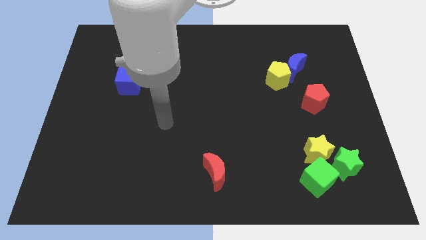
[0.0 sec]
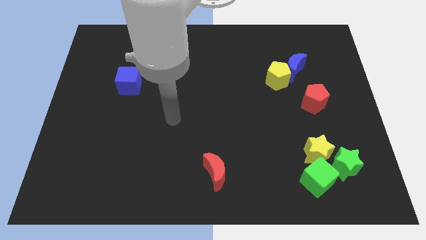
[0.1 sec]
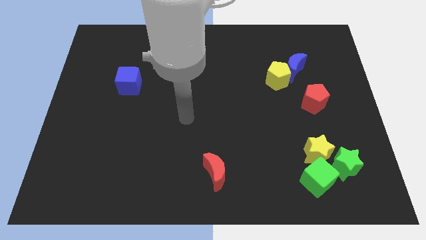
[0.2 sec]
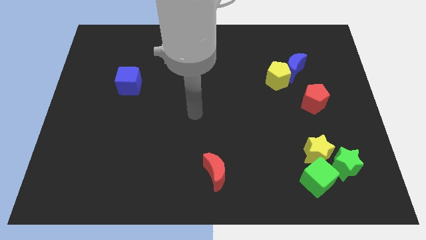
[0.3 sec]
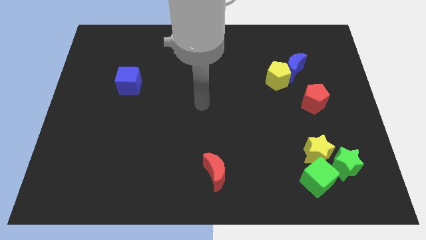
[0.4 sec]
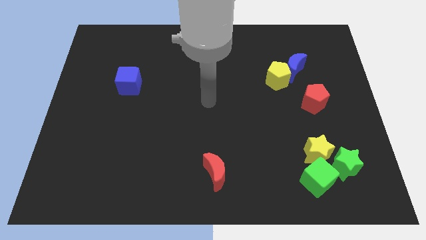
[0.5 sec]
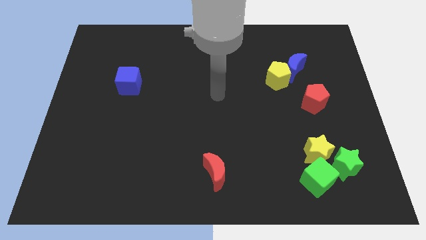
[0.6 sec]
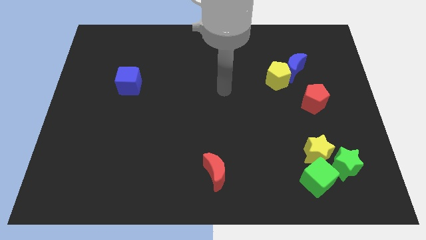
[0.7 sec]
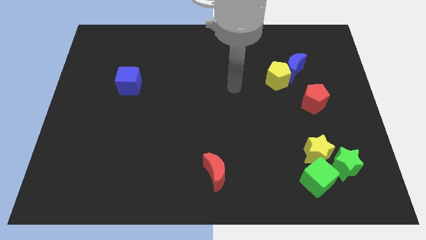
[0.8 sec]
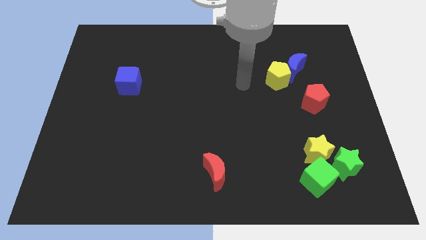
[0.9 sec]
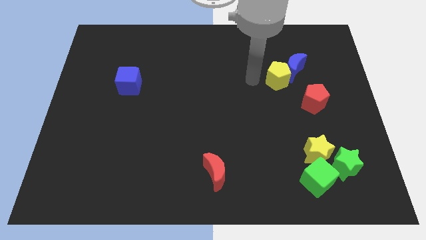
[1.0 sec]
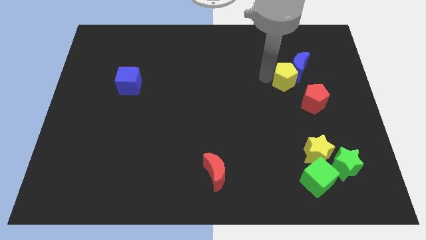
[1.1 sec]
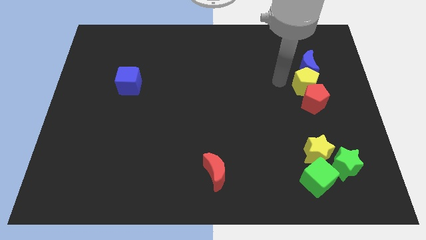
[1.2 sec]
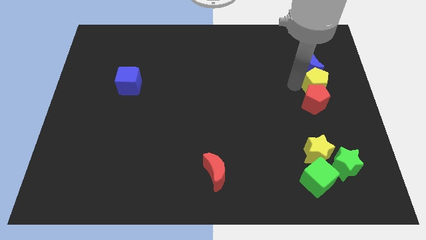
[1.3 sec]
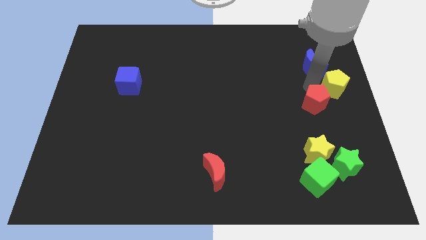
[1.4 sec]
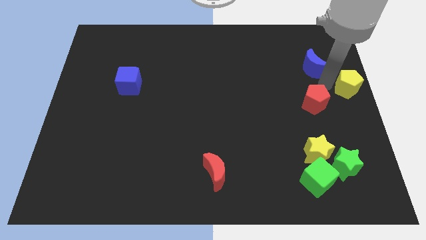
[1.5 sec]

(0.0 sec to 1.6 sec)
pull the blue moon apart from the yellow pentagon

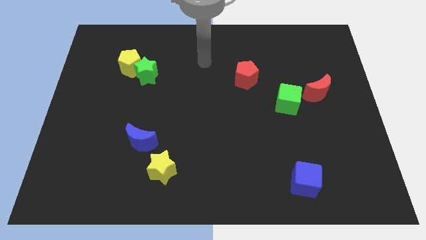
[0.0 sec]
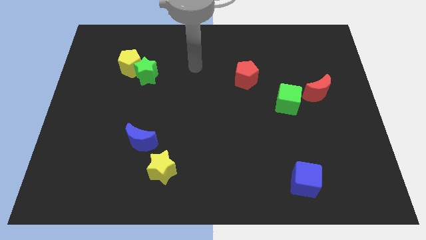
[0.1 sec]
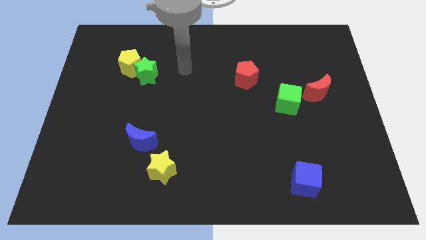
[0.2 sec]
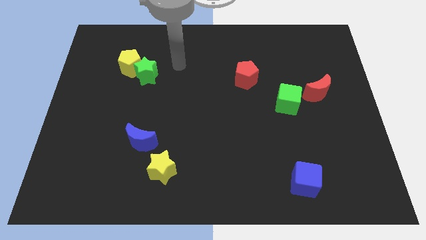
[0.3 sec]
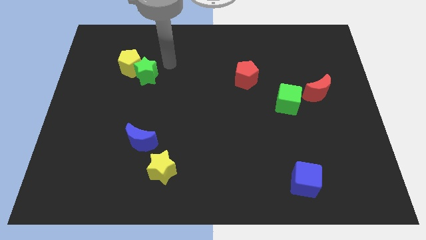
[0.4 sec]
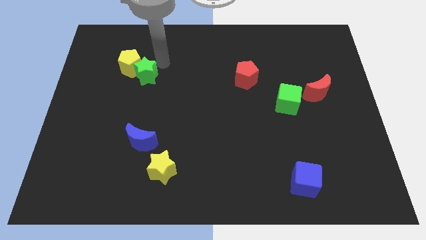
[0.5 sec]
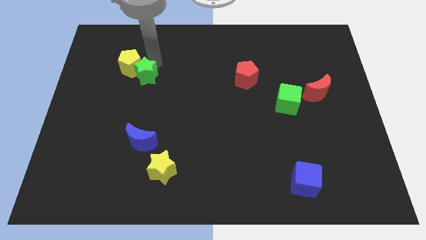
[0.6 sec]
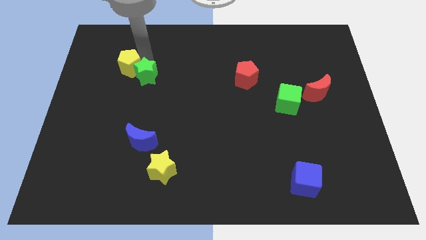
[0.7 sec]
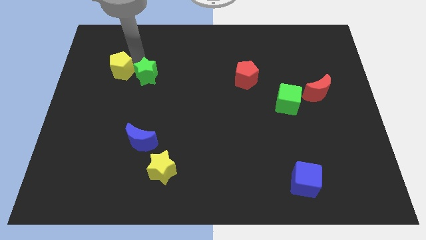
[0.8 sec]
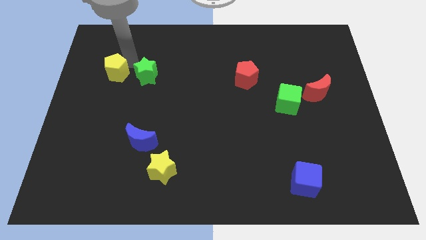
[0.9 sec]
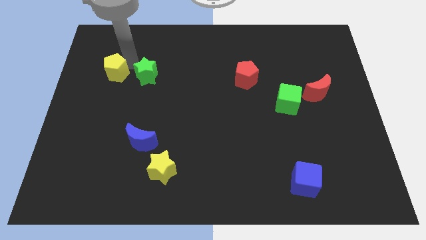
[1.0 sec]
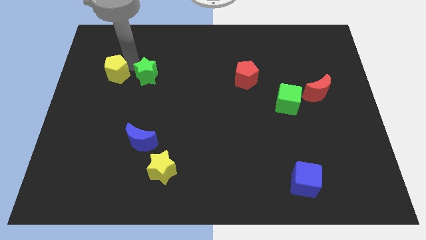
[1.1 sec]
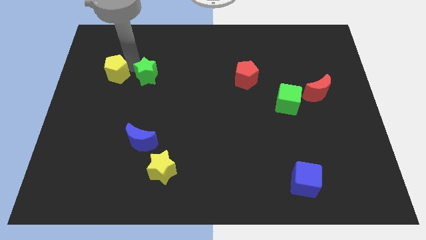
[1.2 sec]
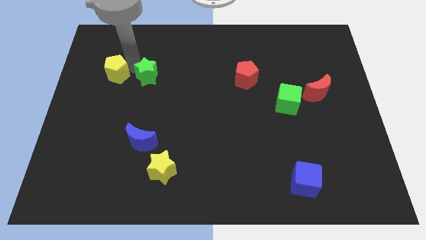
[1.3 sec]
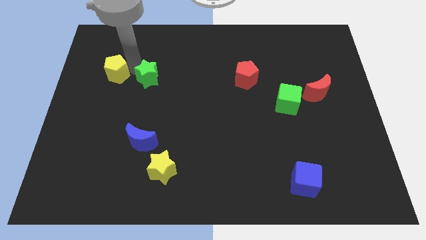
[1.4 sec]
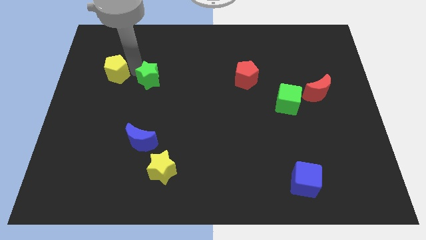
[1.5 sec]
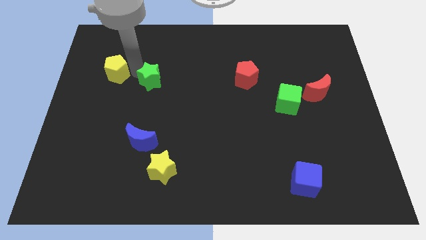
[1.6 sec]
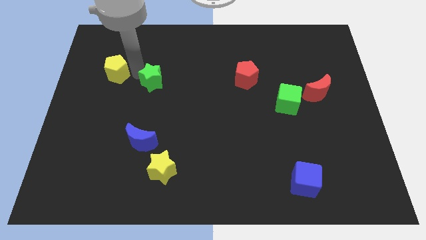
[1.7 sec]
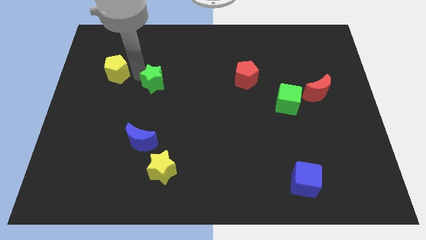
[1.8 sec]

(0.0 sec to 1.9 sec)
separate the green star from the yellow pentagon

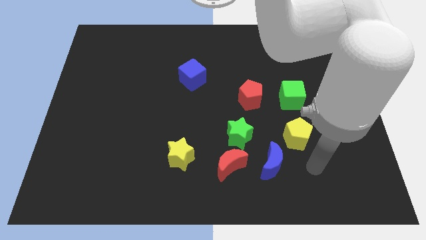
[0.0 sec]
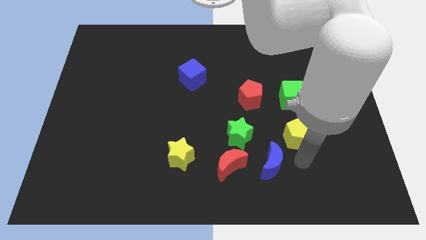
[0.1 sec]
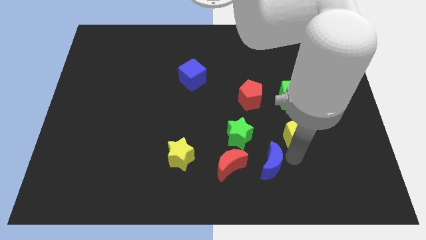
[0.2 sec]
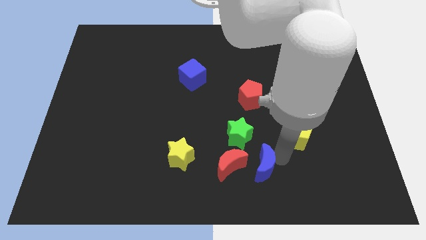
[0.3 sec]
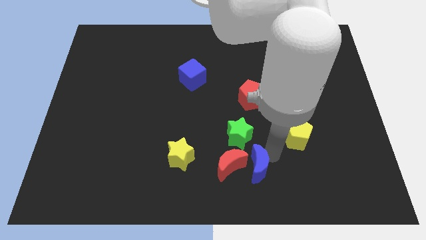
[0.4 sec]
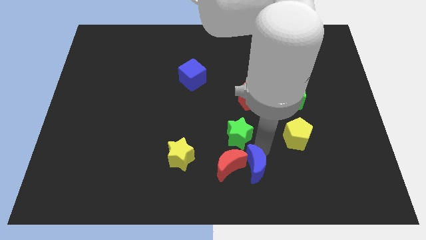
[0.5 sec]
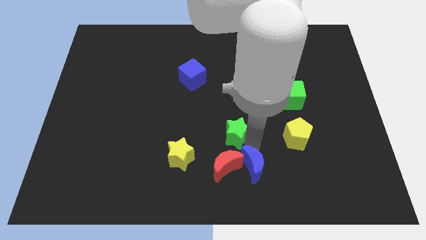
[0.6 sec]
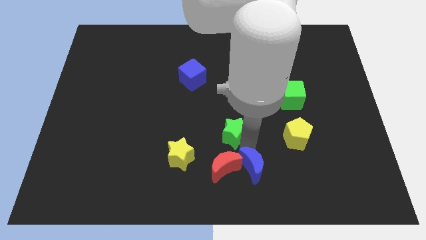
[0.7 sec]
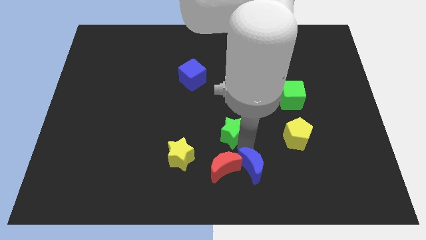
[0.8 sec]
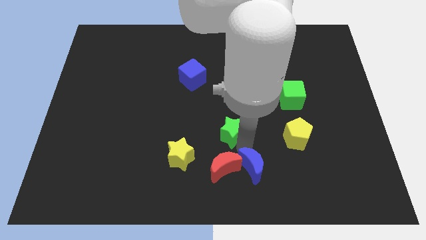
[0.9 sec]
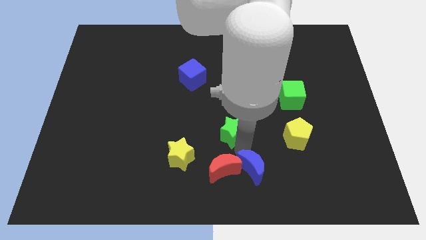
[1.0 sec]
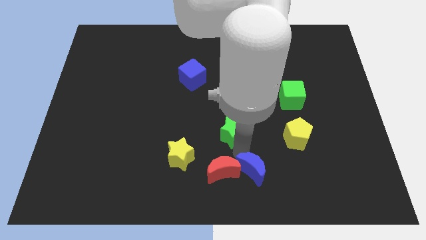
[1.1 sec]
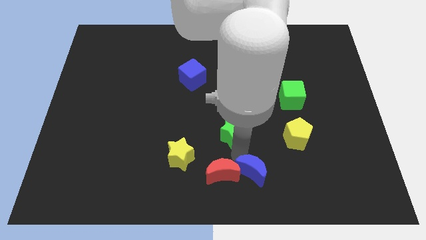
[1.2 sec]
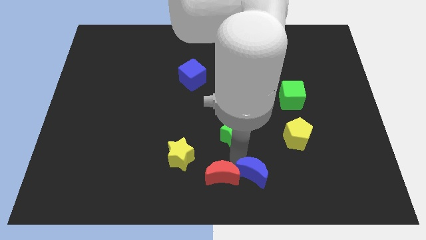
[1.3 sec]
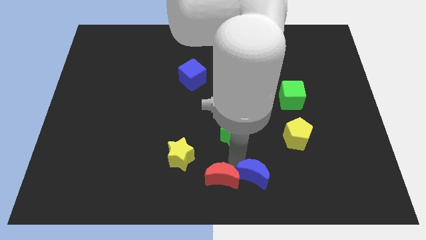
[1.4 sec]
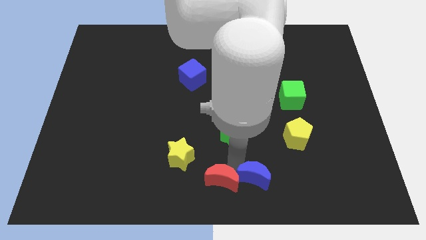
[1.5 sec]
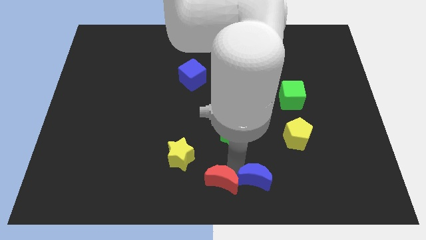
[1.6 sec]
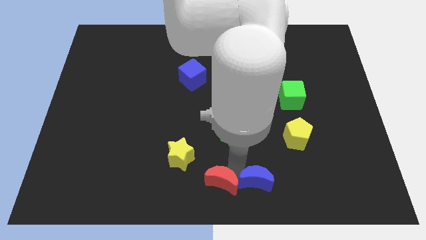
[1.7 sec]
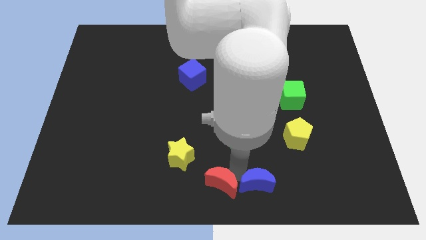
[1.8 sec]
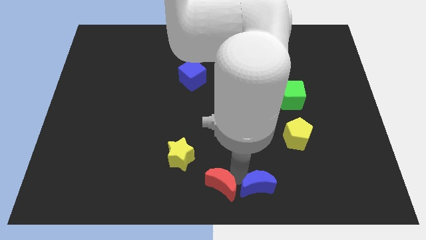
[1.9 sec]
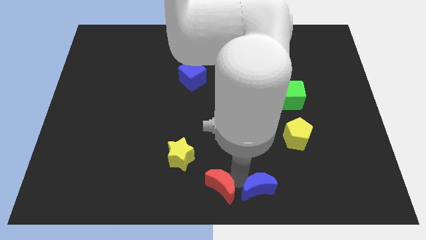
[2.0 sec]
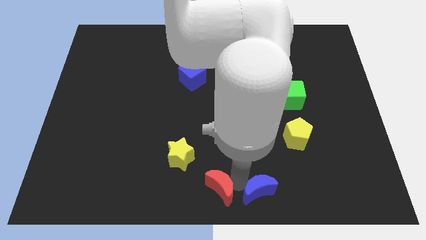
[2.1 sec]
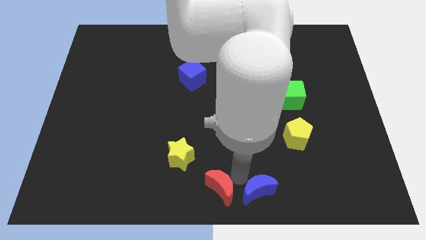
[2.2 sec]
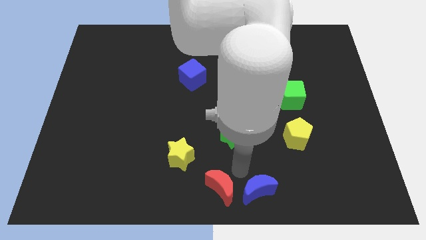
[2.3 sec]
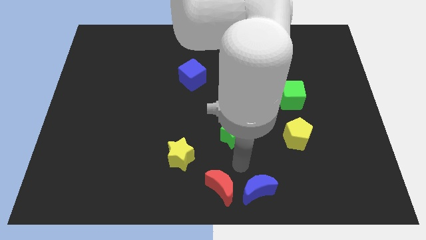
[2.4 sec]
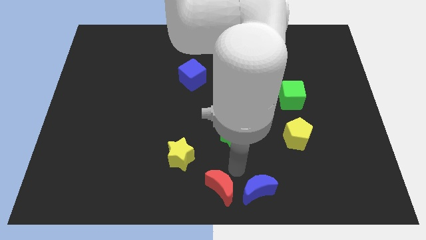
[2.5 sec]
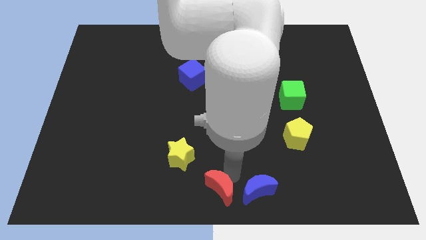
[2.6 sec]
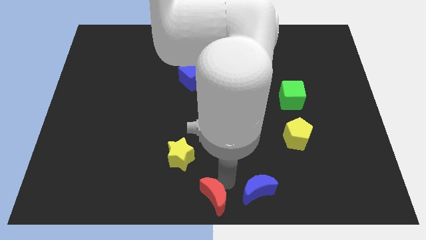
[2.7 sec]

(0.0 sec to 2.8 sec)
separate the red moon from the green star and blue moon

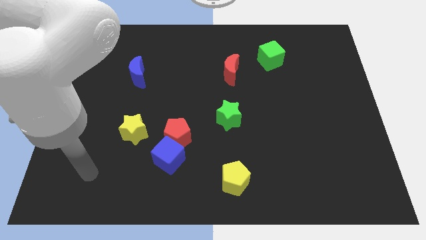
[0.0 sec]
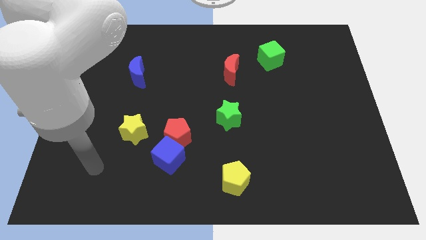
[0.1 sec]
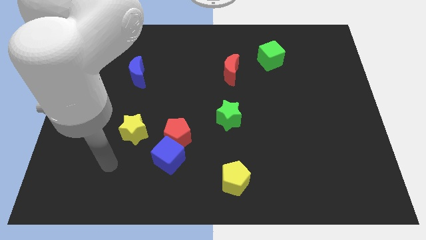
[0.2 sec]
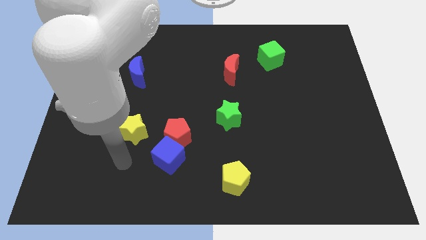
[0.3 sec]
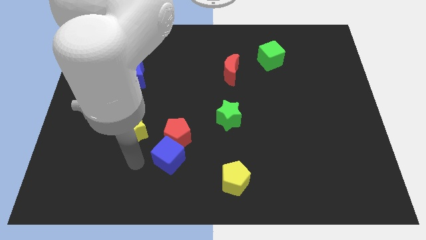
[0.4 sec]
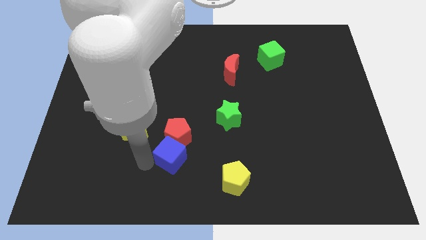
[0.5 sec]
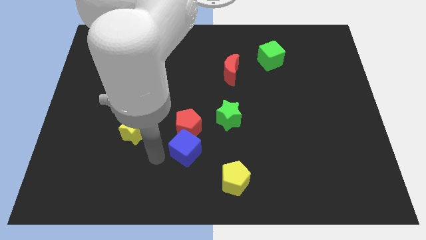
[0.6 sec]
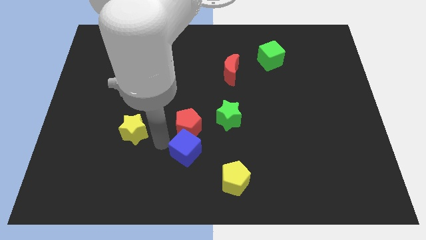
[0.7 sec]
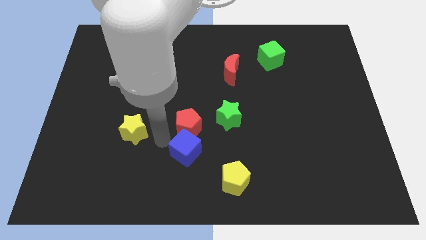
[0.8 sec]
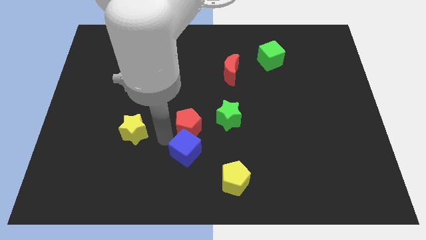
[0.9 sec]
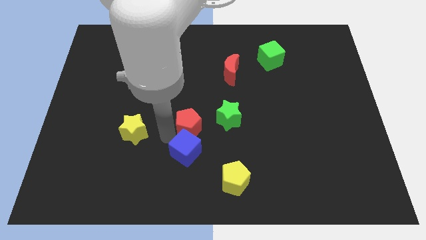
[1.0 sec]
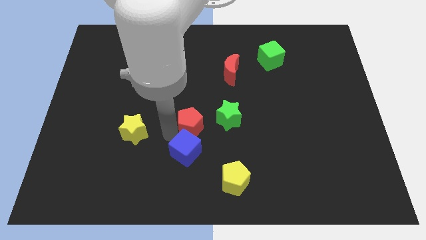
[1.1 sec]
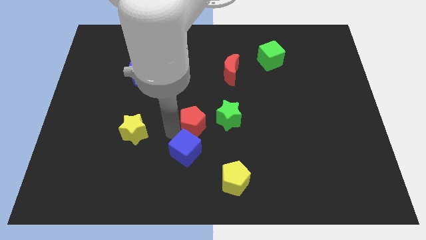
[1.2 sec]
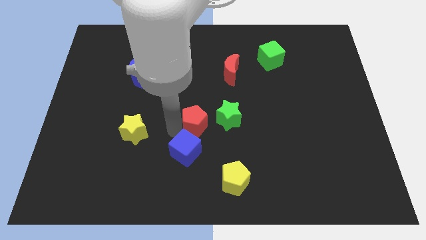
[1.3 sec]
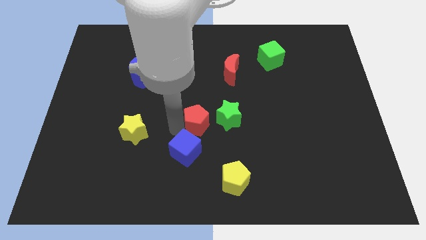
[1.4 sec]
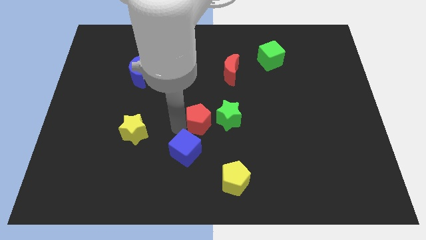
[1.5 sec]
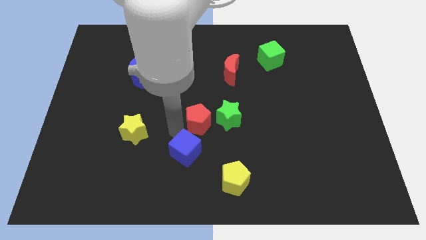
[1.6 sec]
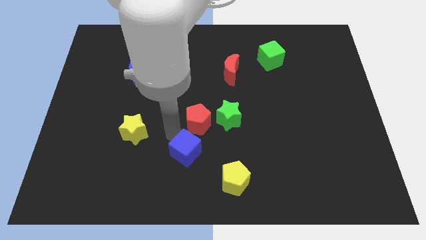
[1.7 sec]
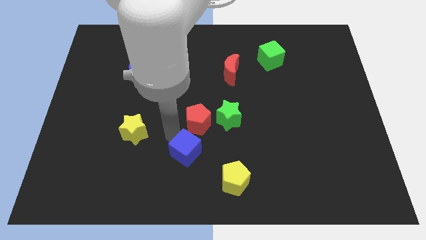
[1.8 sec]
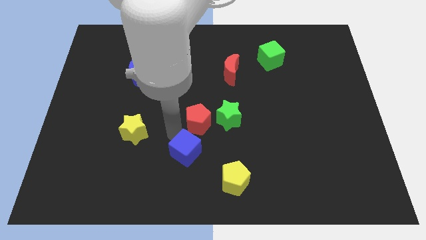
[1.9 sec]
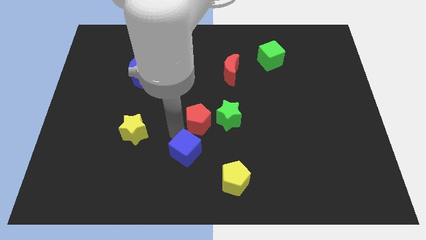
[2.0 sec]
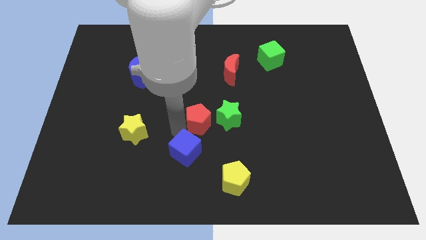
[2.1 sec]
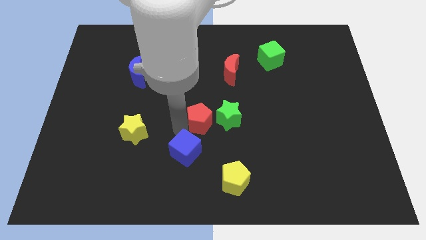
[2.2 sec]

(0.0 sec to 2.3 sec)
move the red pentagon away from the blue cube and yellow star

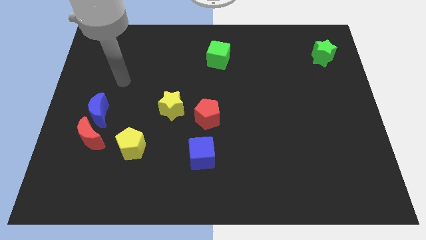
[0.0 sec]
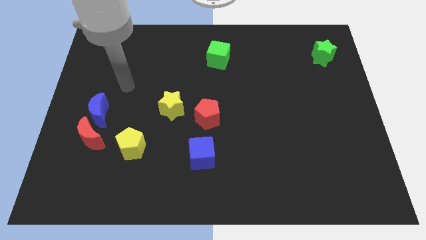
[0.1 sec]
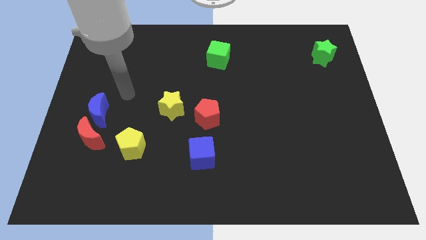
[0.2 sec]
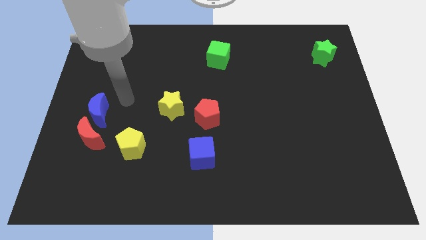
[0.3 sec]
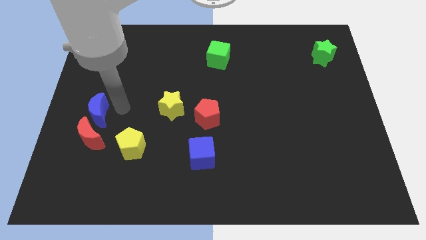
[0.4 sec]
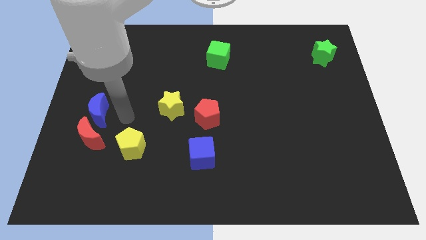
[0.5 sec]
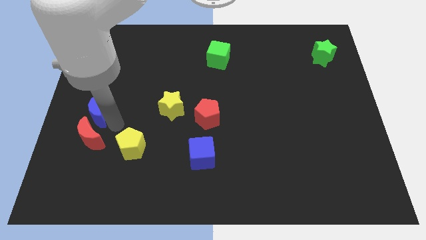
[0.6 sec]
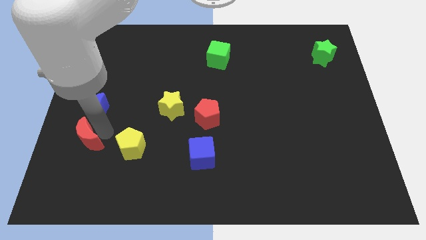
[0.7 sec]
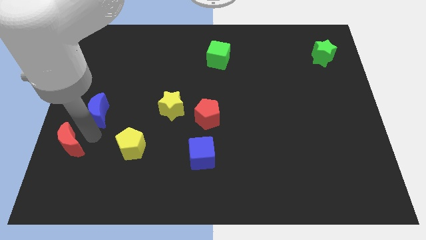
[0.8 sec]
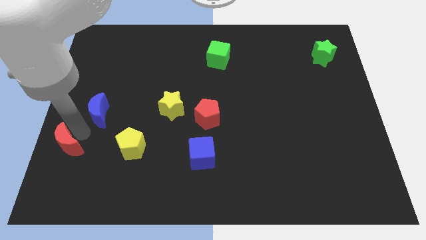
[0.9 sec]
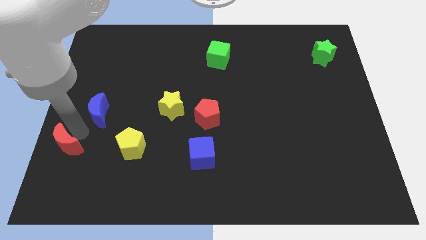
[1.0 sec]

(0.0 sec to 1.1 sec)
separate the blue moon from the red moon
